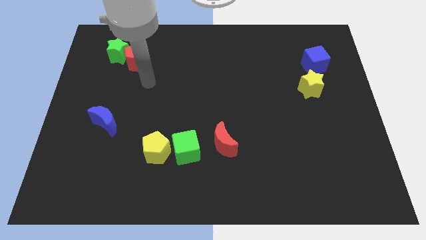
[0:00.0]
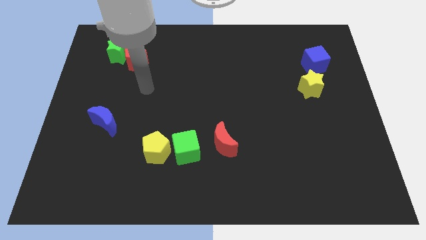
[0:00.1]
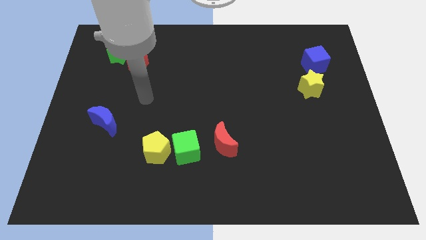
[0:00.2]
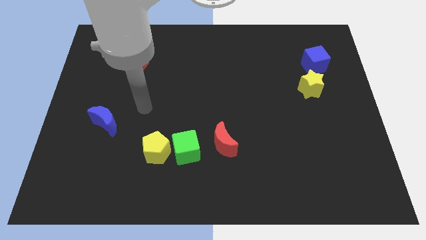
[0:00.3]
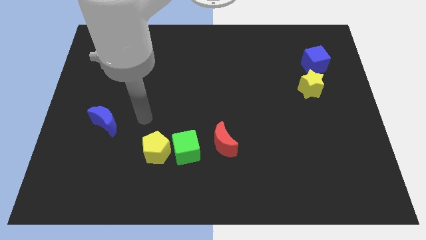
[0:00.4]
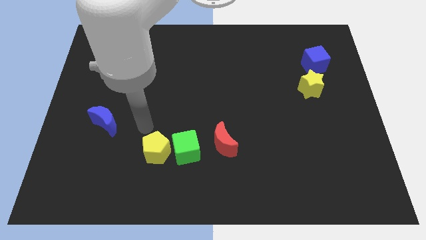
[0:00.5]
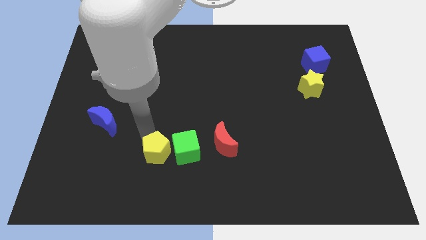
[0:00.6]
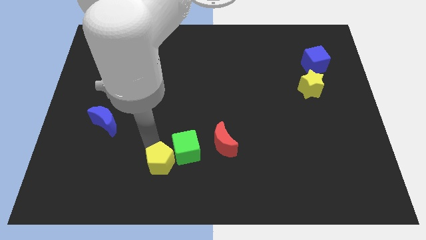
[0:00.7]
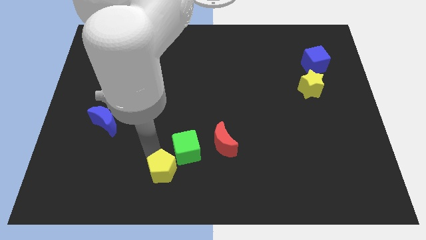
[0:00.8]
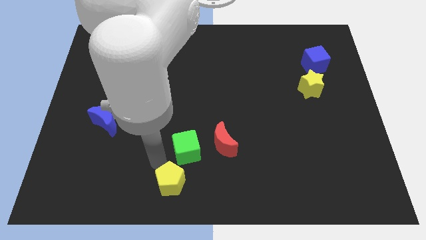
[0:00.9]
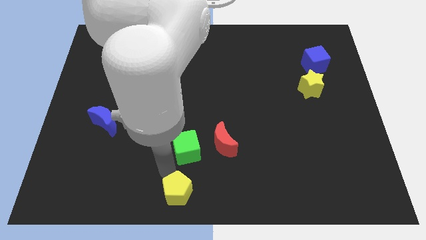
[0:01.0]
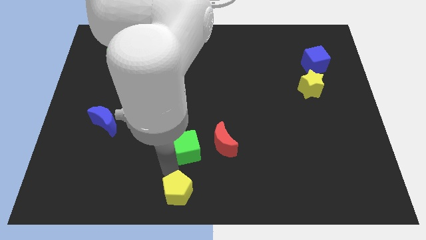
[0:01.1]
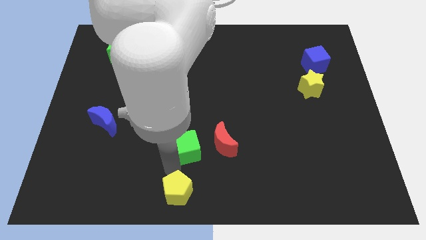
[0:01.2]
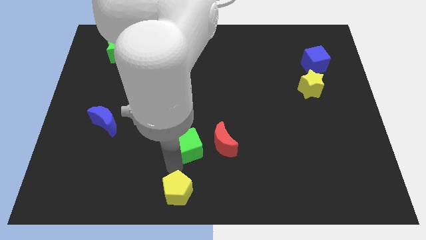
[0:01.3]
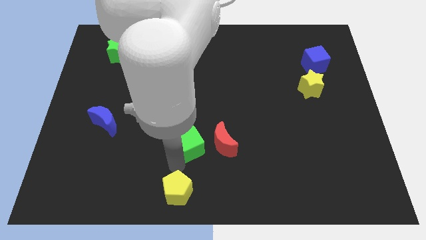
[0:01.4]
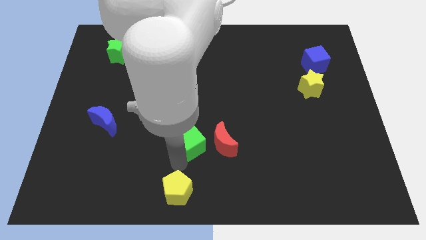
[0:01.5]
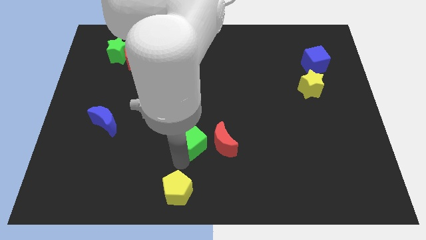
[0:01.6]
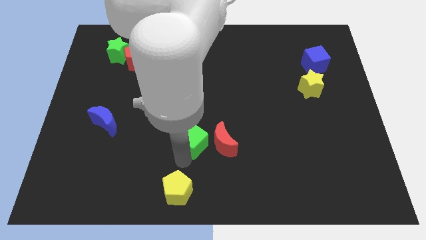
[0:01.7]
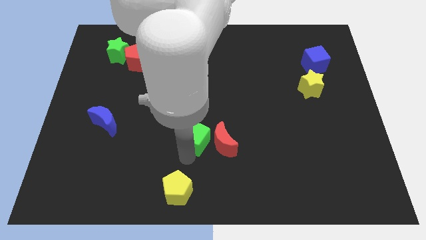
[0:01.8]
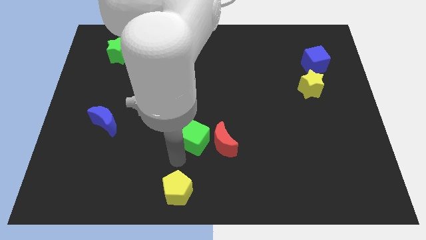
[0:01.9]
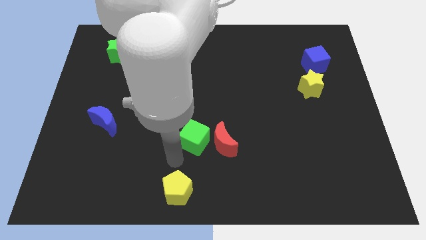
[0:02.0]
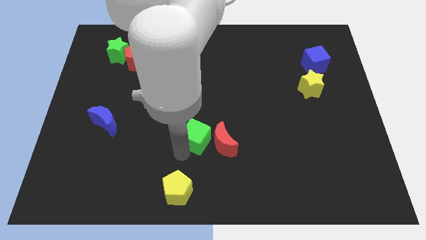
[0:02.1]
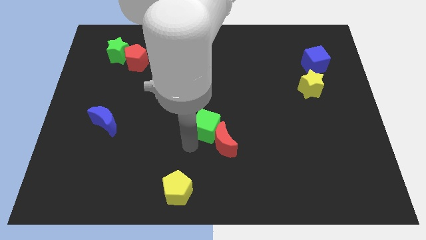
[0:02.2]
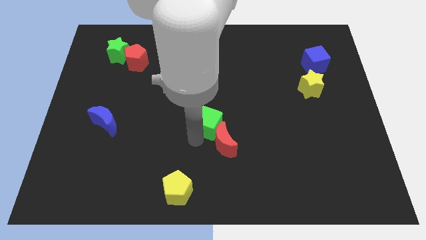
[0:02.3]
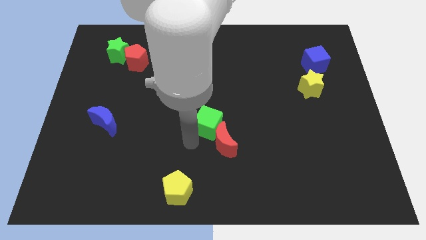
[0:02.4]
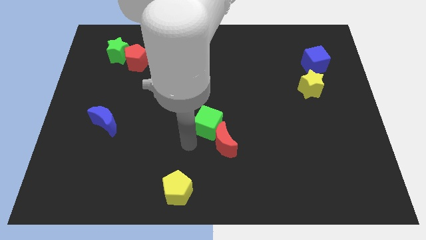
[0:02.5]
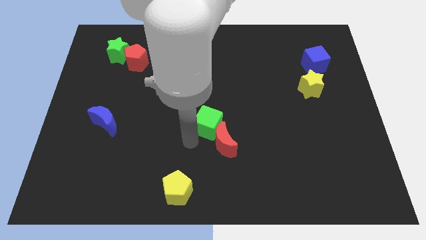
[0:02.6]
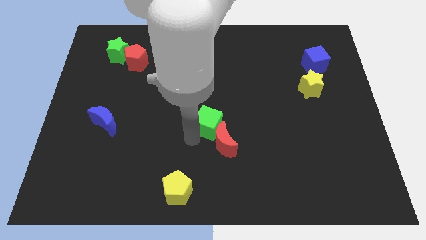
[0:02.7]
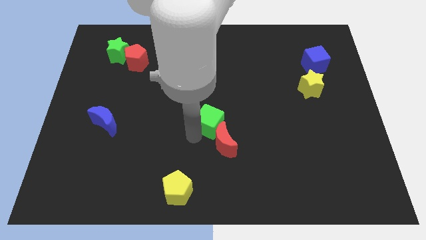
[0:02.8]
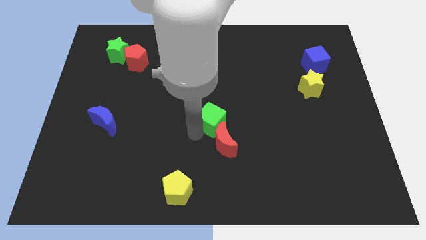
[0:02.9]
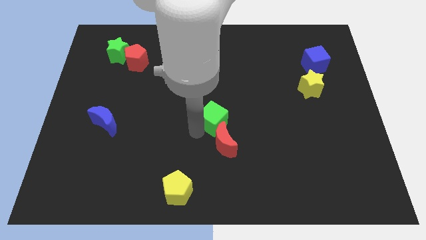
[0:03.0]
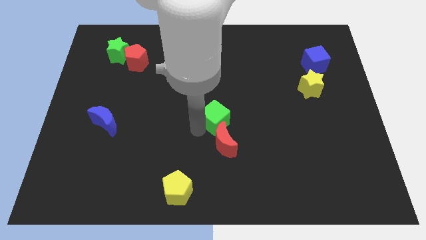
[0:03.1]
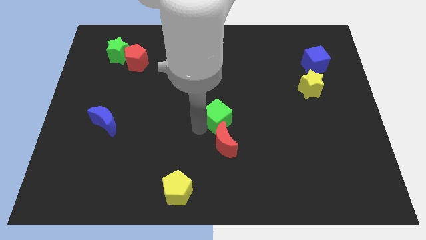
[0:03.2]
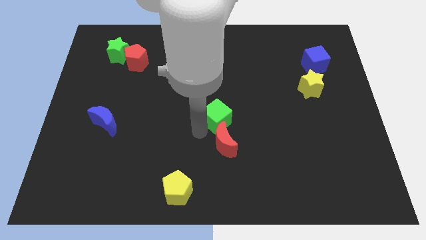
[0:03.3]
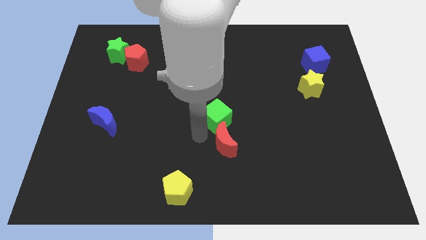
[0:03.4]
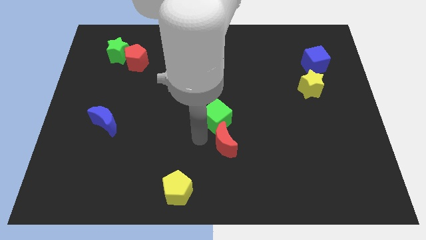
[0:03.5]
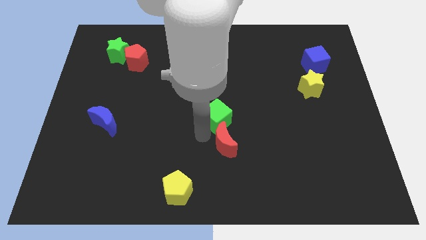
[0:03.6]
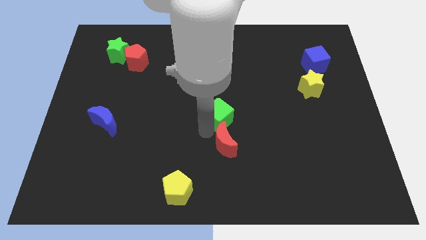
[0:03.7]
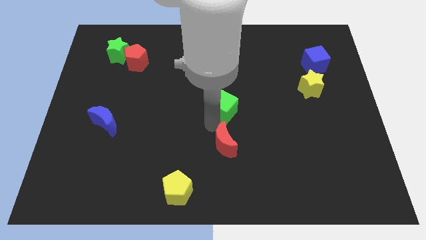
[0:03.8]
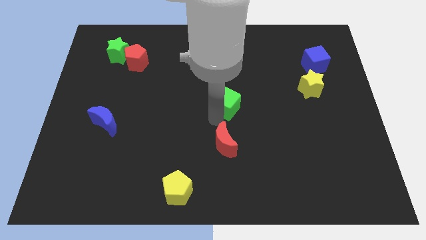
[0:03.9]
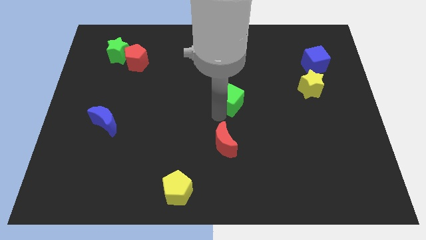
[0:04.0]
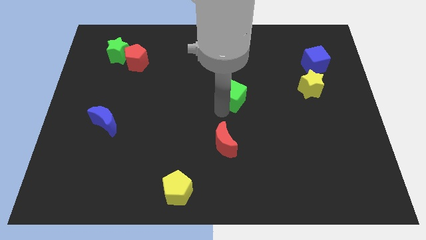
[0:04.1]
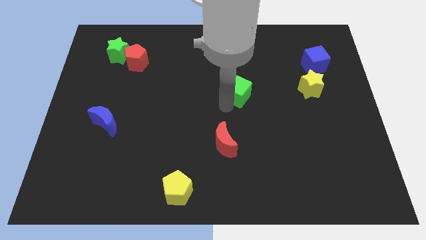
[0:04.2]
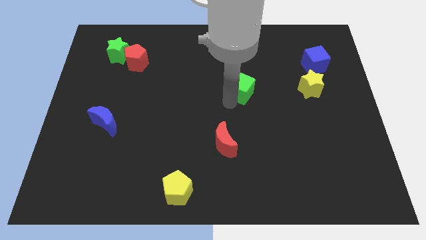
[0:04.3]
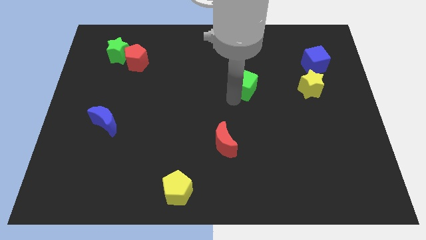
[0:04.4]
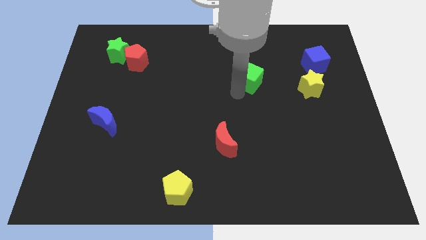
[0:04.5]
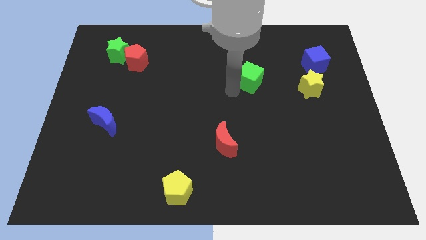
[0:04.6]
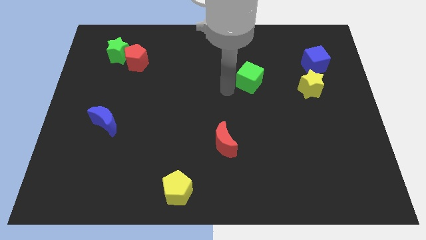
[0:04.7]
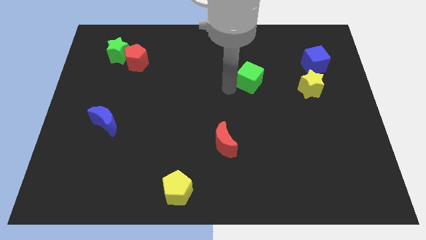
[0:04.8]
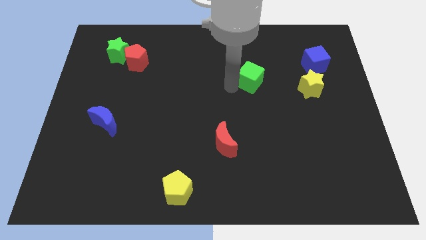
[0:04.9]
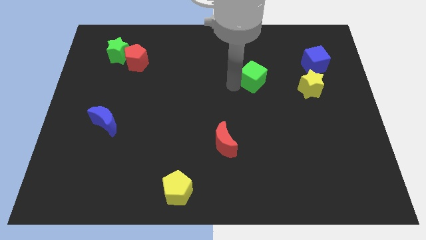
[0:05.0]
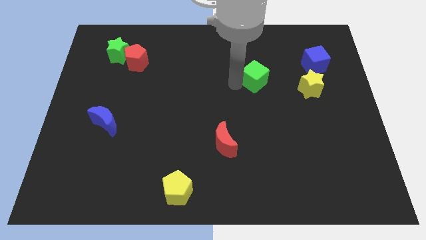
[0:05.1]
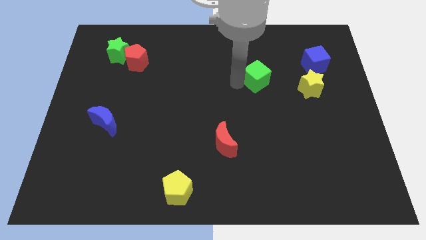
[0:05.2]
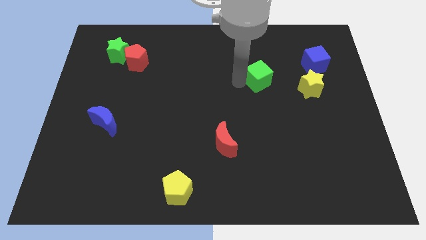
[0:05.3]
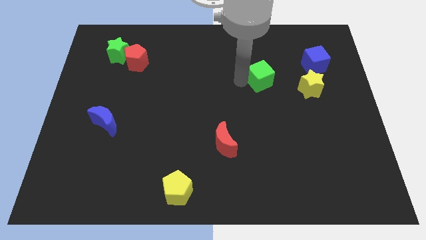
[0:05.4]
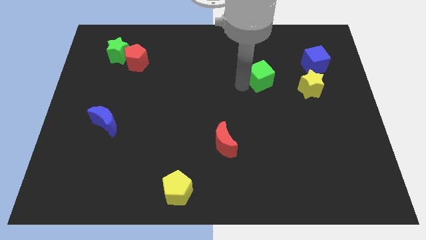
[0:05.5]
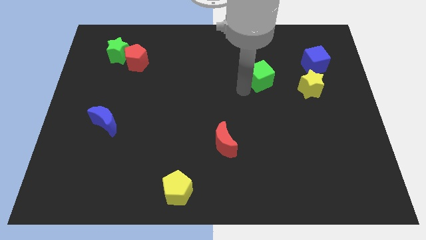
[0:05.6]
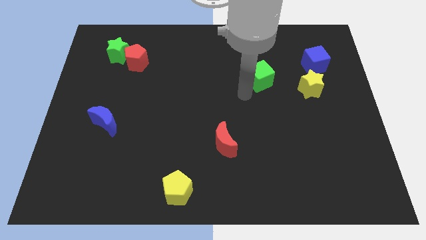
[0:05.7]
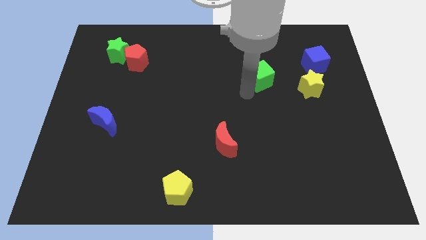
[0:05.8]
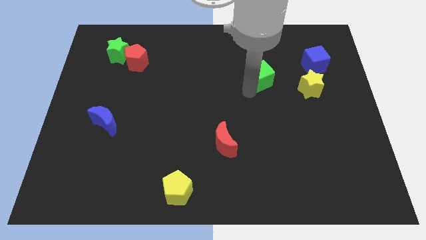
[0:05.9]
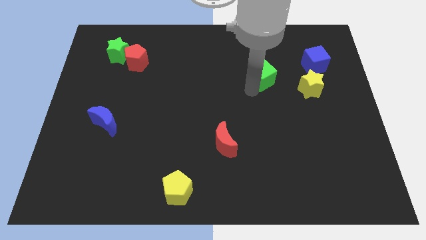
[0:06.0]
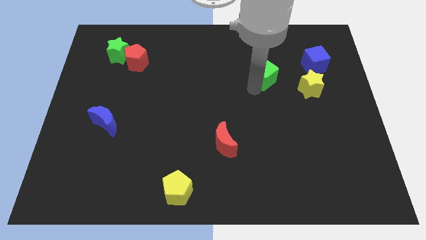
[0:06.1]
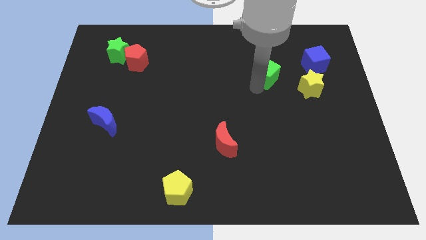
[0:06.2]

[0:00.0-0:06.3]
slide the green cube to the left side of the blue cube

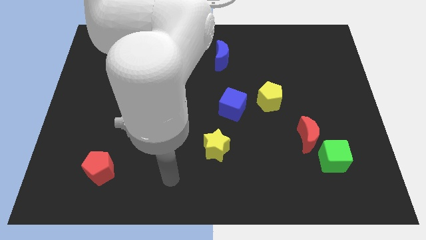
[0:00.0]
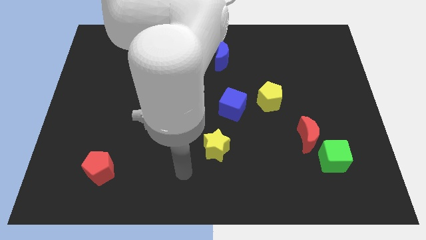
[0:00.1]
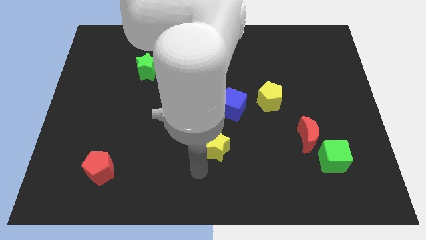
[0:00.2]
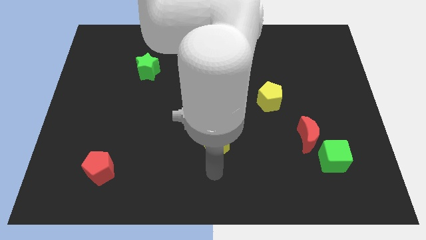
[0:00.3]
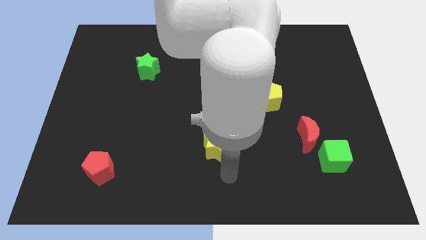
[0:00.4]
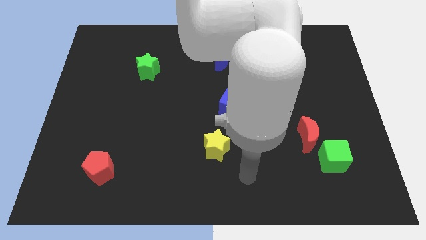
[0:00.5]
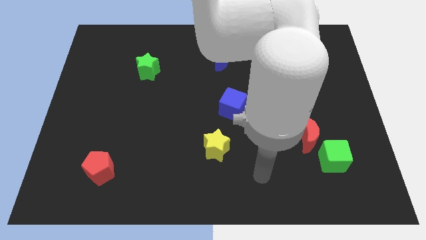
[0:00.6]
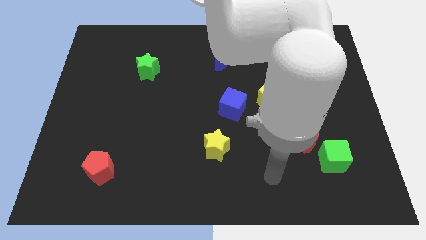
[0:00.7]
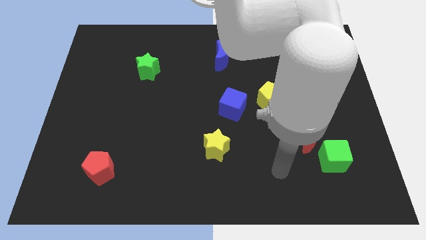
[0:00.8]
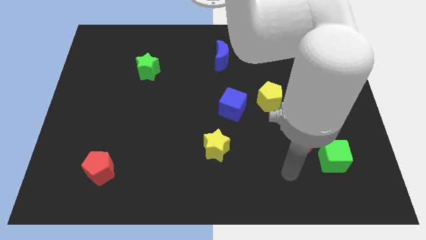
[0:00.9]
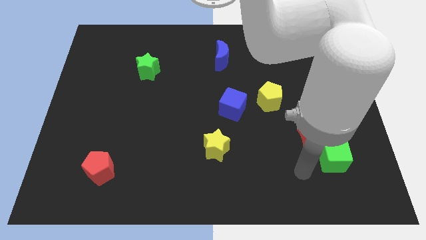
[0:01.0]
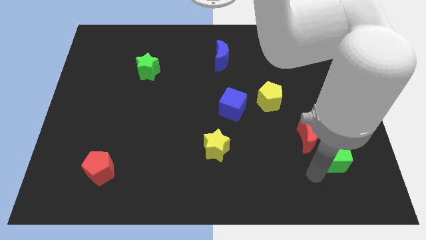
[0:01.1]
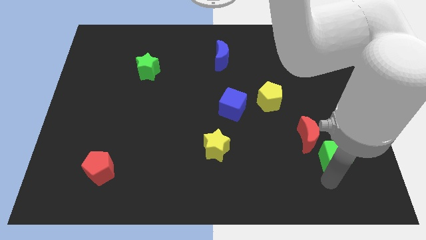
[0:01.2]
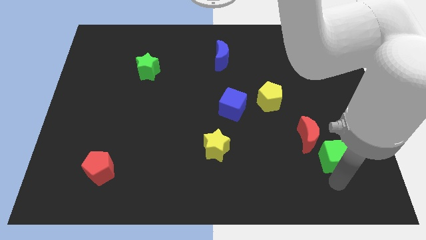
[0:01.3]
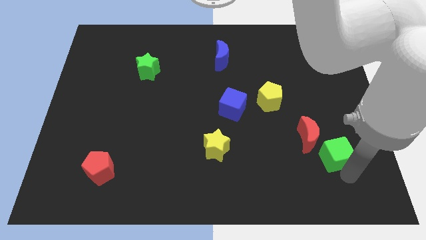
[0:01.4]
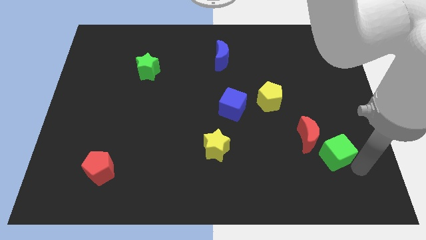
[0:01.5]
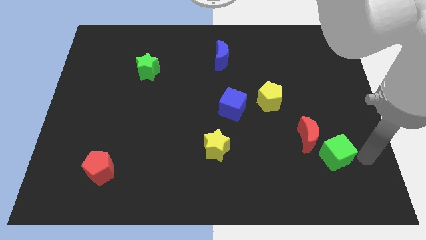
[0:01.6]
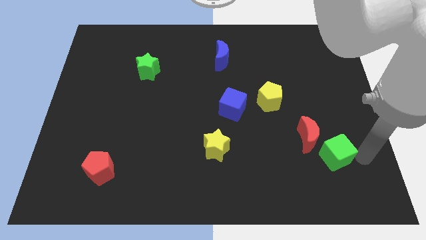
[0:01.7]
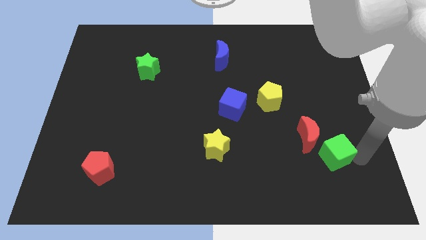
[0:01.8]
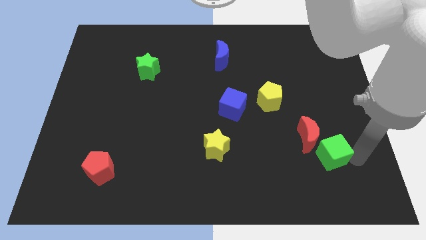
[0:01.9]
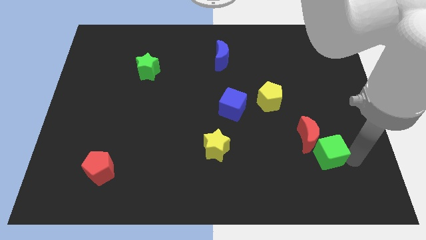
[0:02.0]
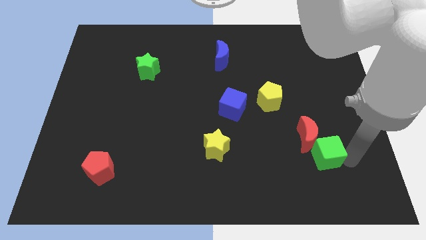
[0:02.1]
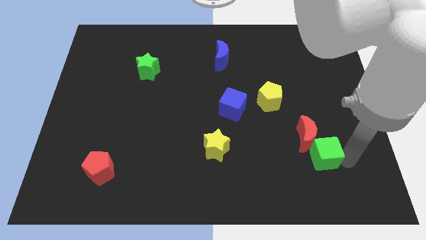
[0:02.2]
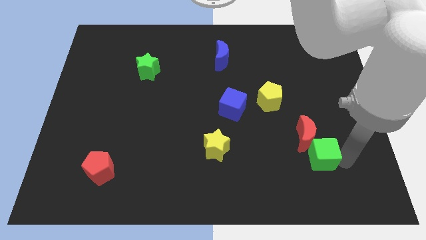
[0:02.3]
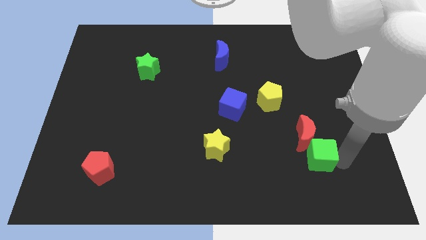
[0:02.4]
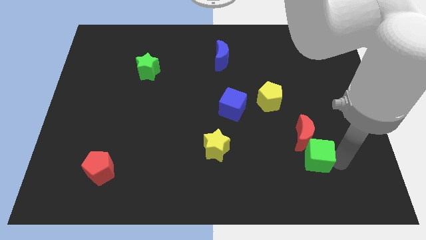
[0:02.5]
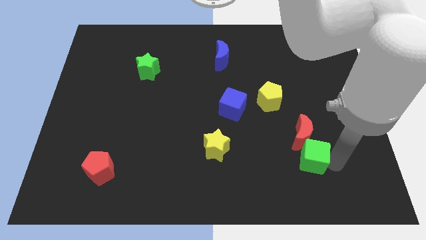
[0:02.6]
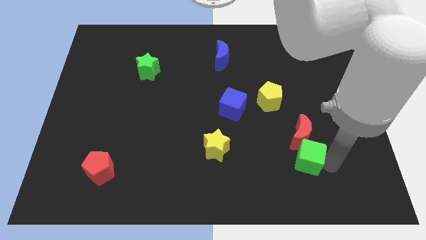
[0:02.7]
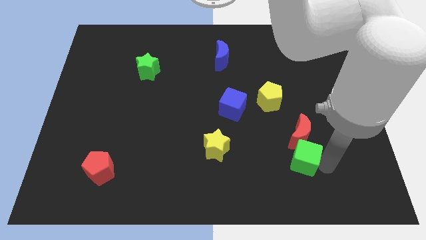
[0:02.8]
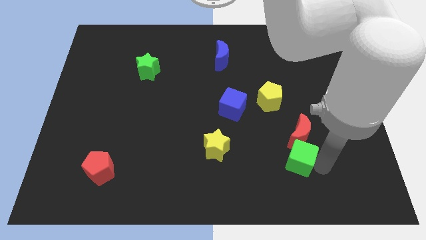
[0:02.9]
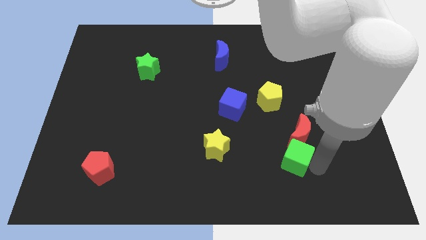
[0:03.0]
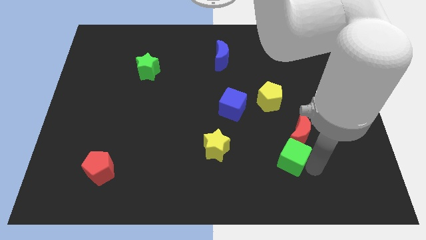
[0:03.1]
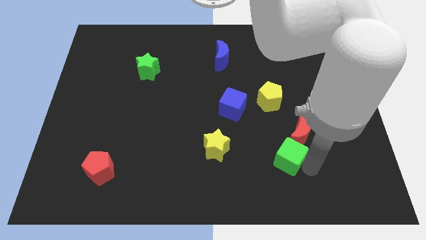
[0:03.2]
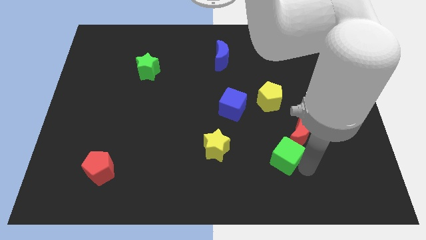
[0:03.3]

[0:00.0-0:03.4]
slide the green cube to the bottom side of the yellow pentagon
